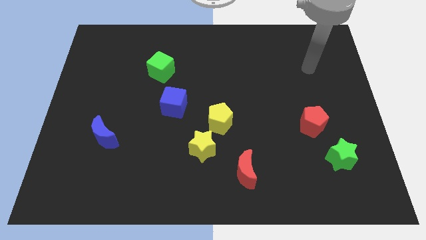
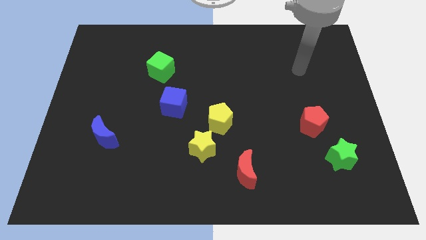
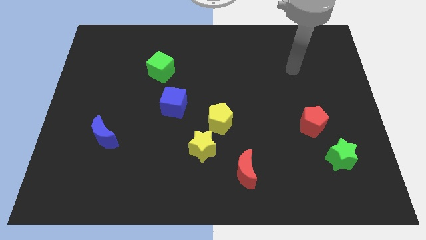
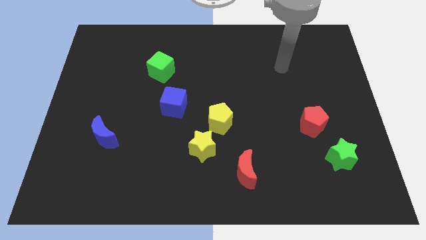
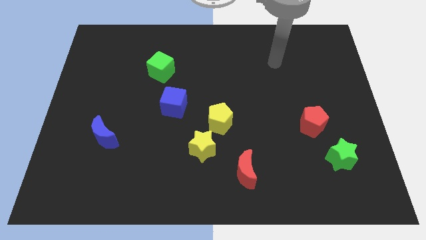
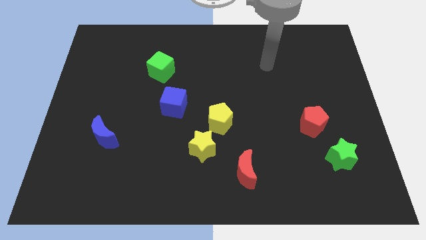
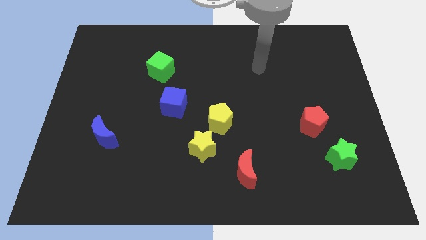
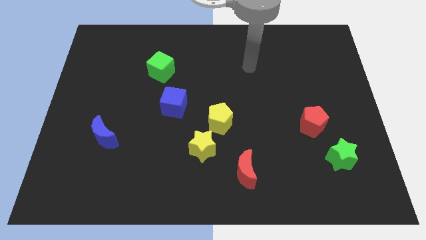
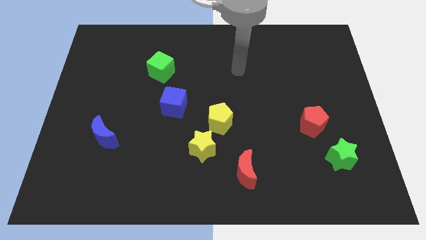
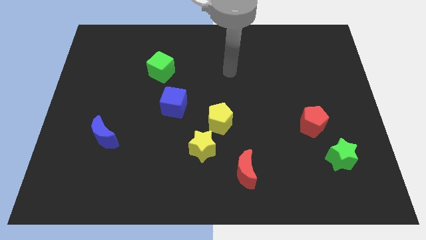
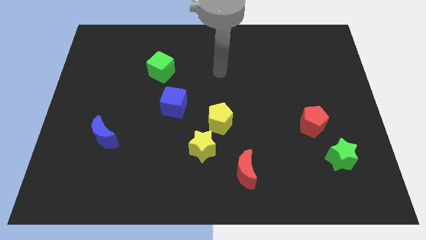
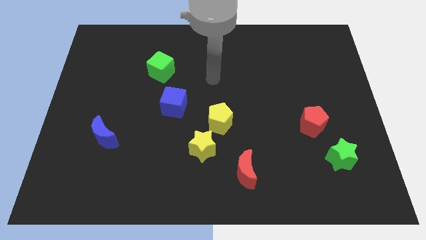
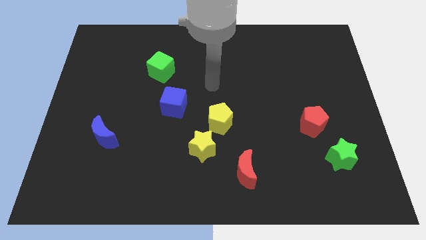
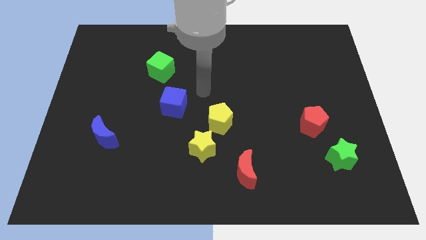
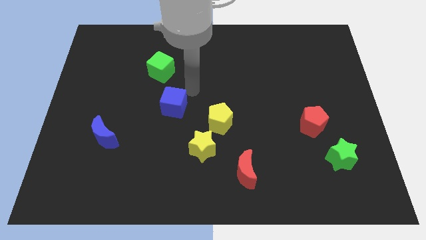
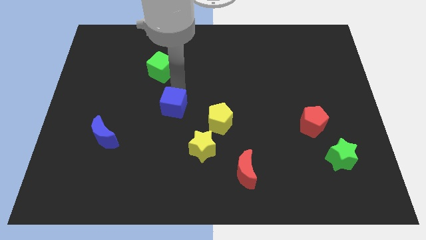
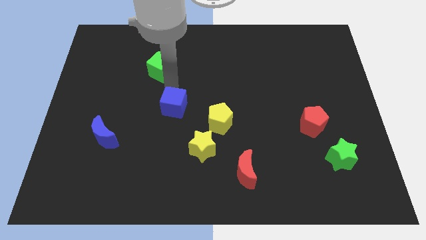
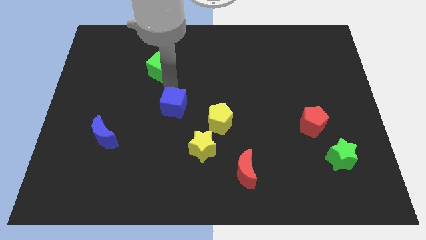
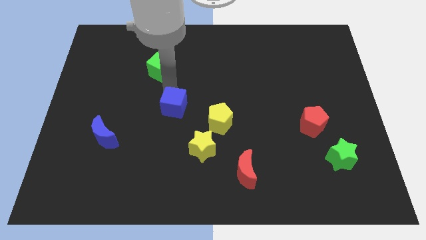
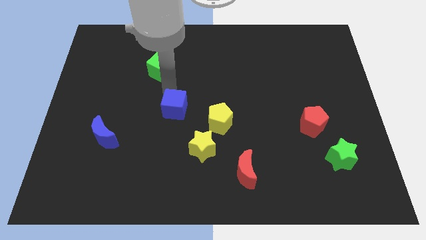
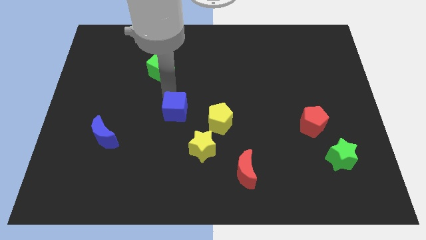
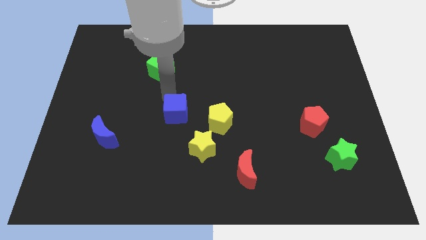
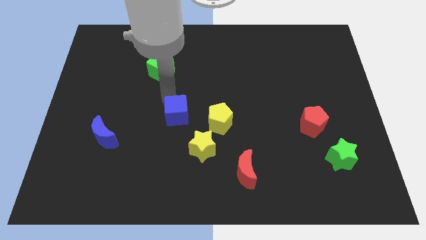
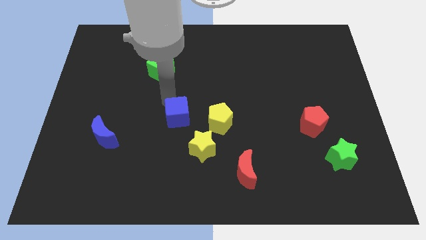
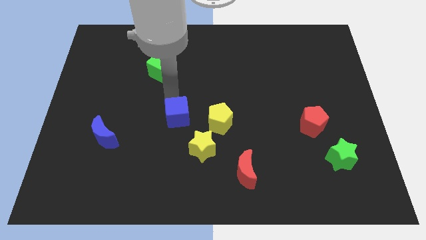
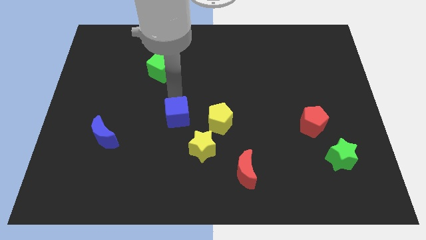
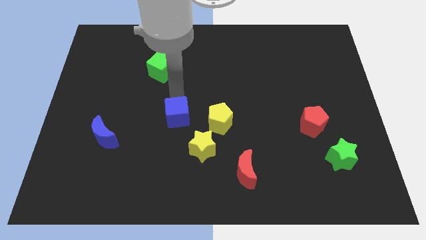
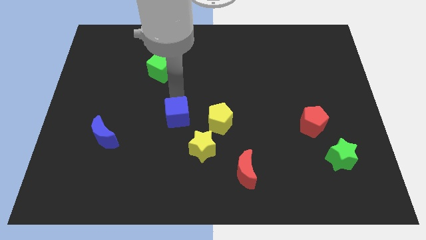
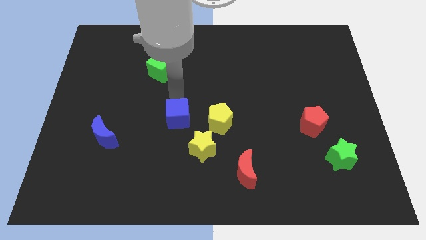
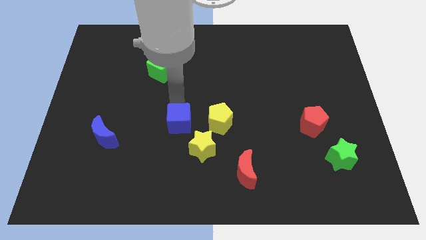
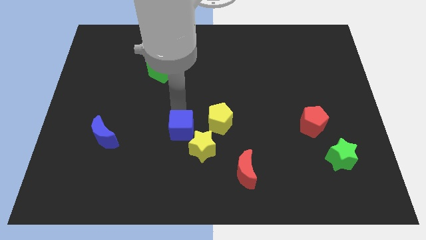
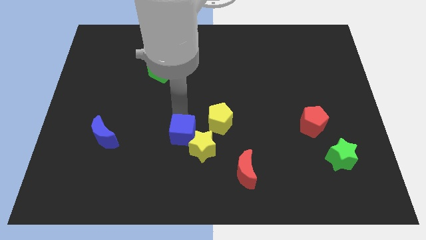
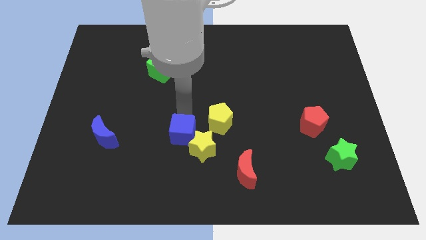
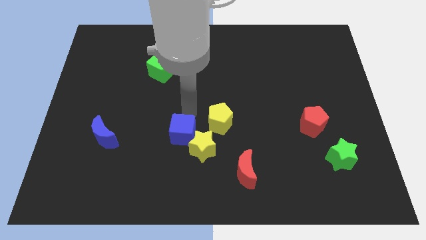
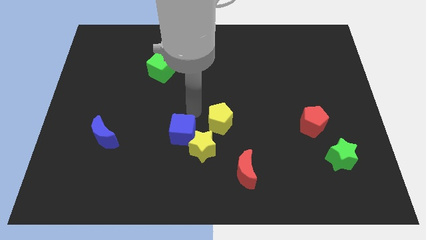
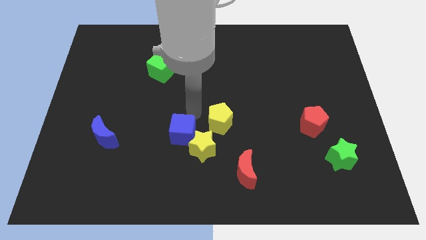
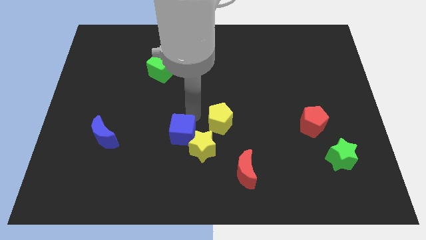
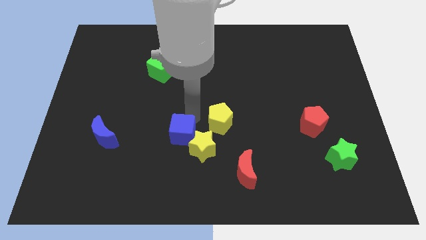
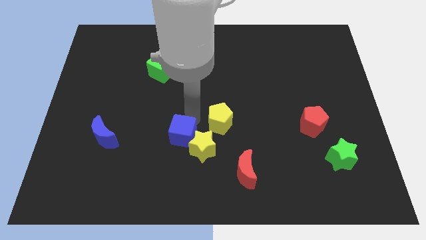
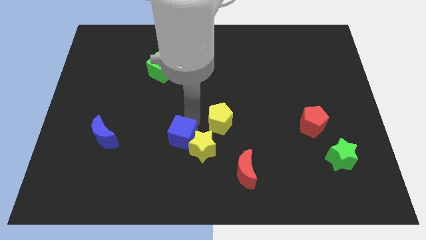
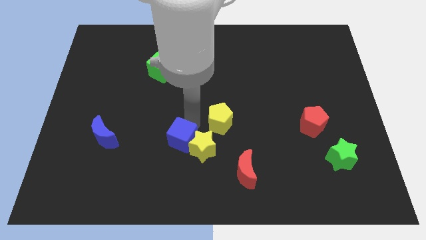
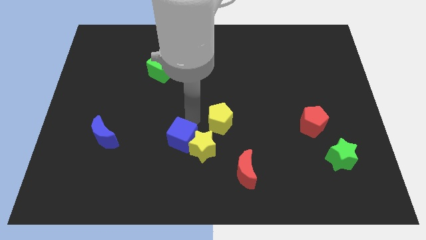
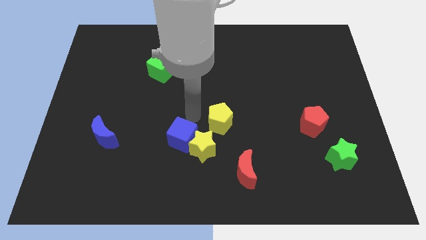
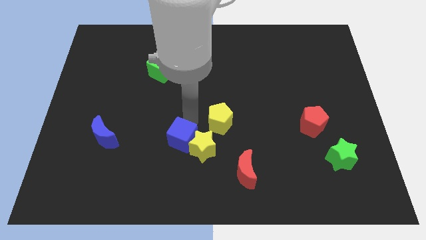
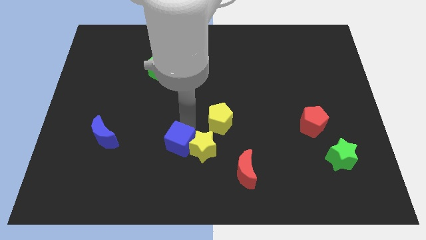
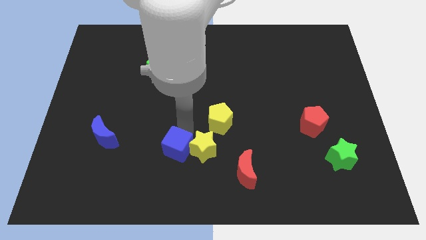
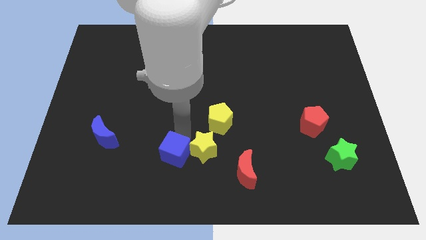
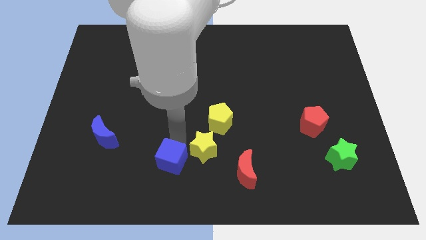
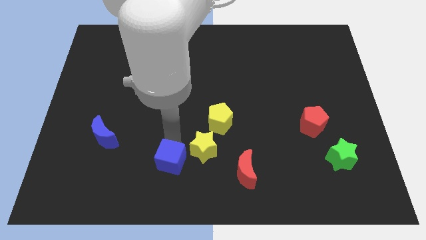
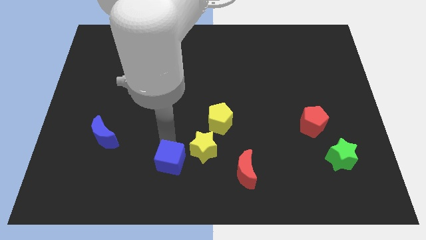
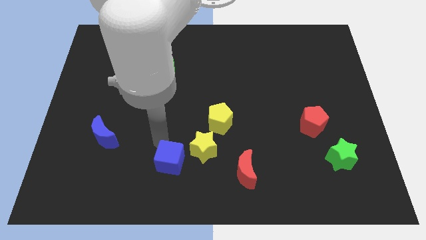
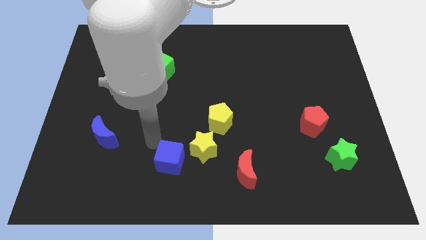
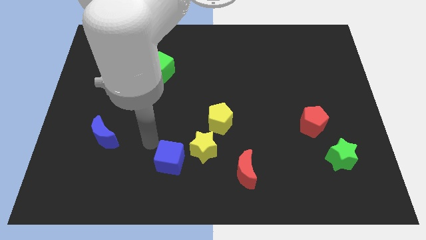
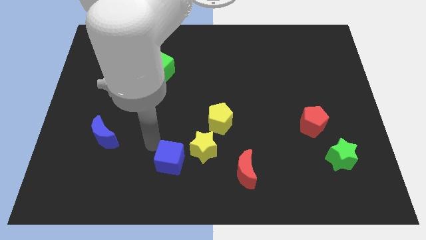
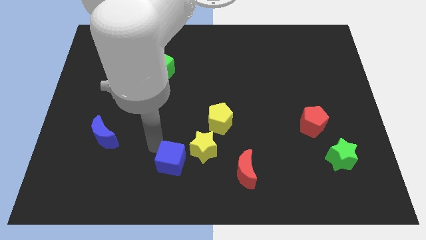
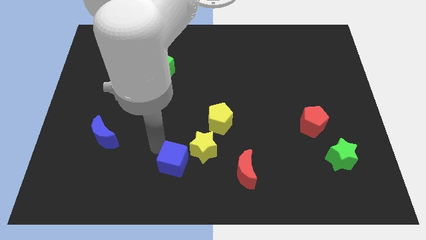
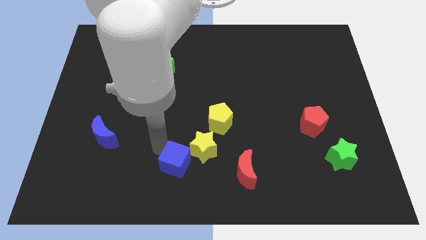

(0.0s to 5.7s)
push the blue cube to the bottom

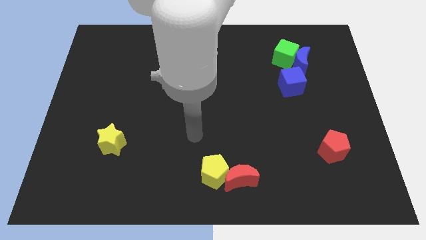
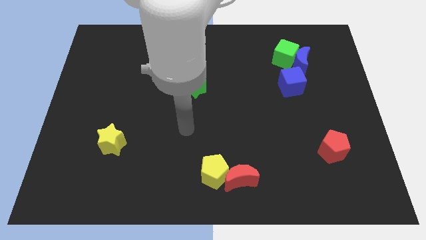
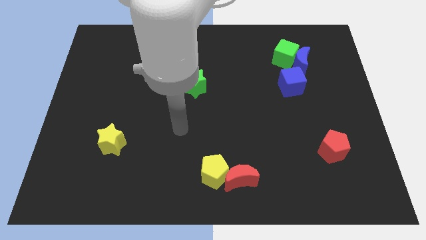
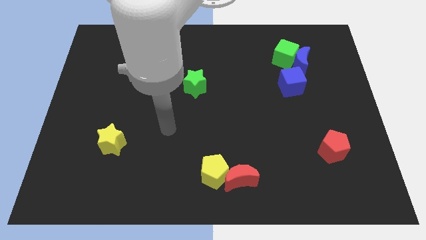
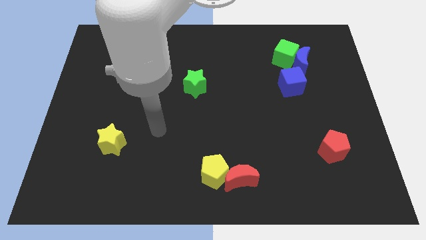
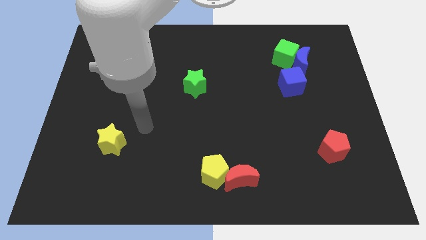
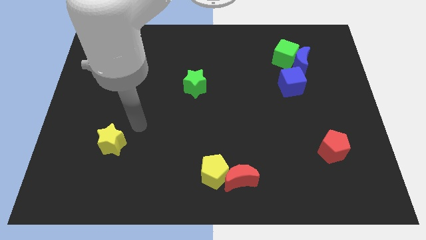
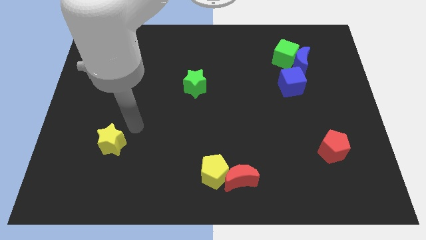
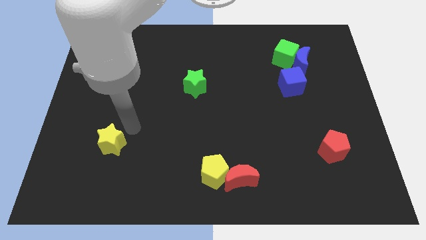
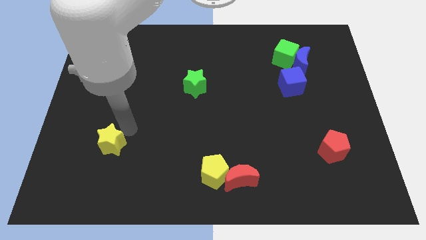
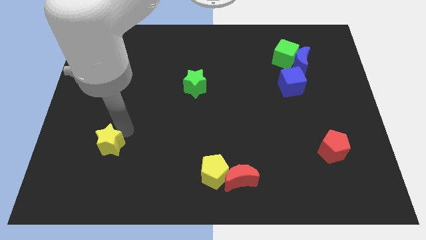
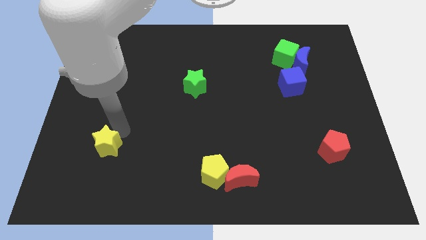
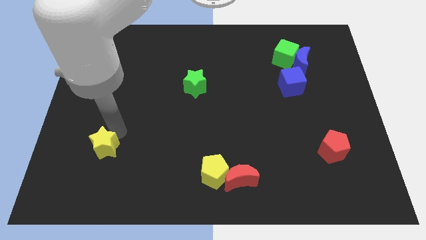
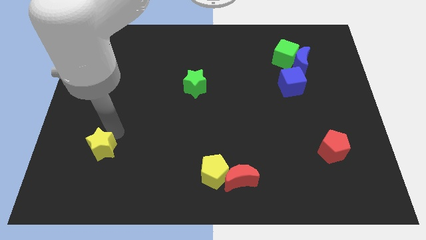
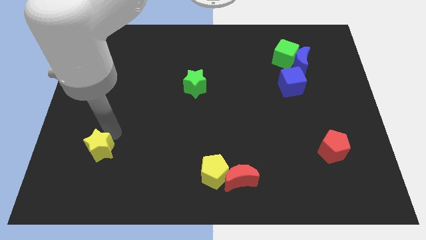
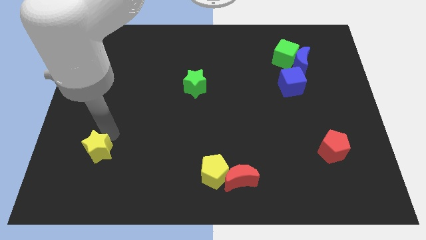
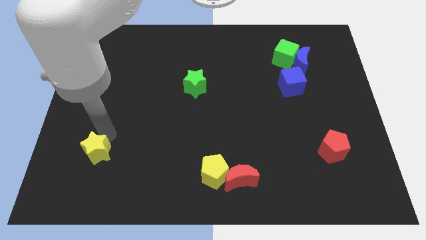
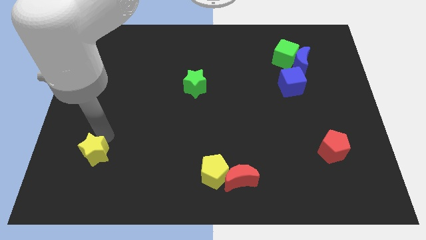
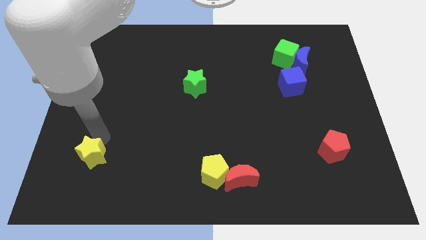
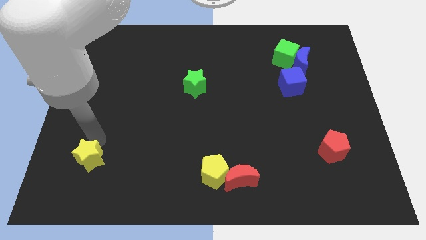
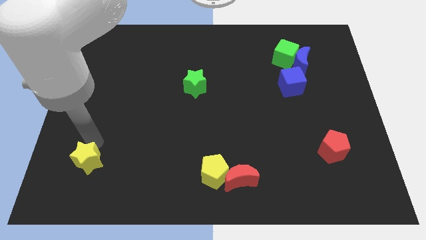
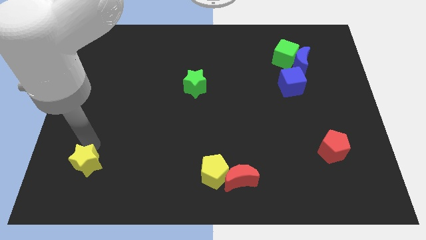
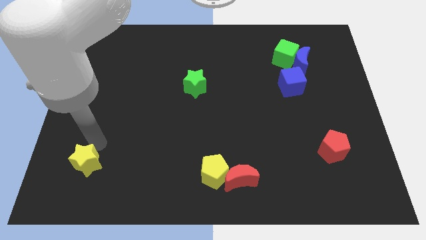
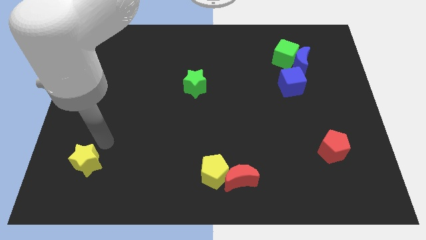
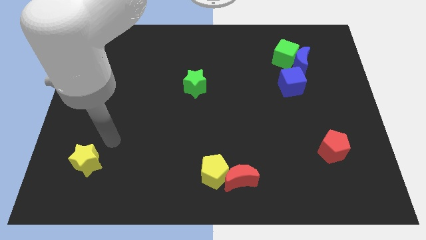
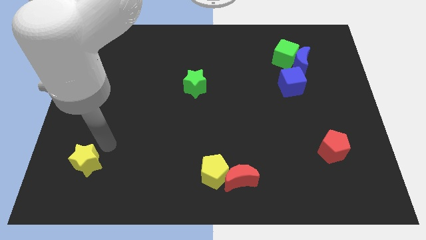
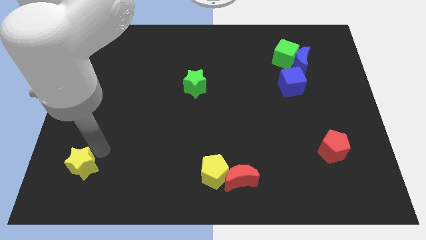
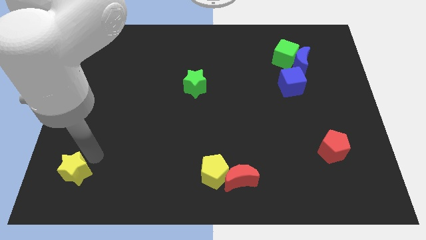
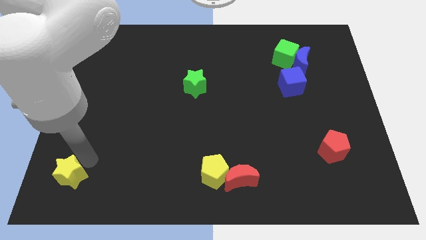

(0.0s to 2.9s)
move the yellow star to the bottom left of the board
